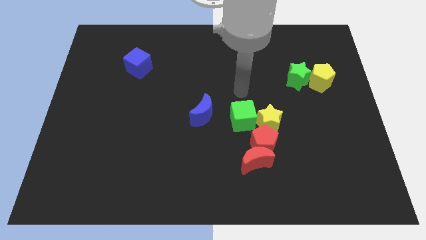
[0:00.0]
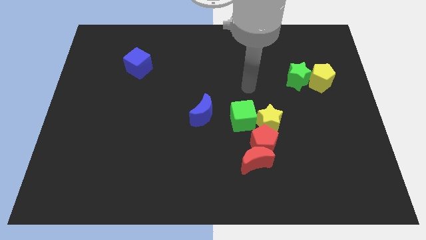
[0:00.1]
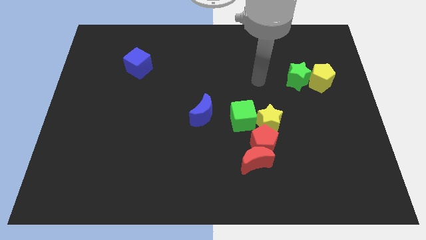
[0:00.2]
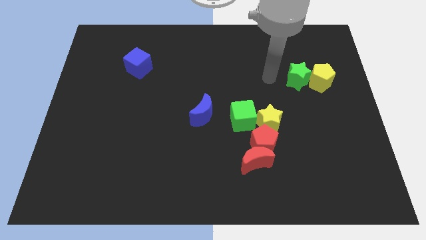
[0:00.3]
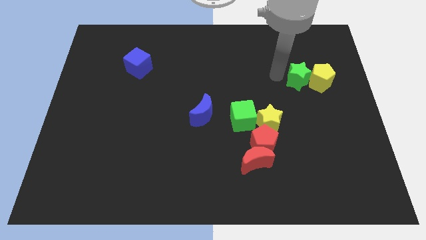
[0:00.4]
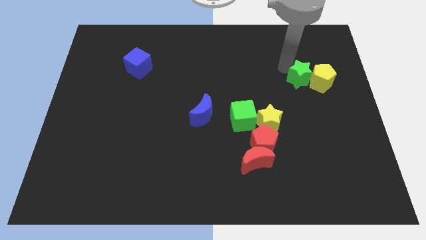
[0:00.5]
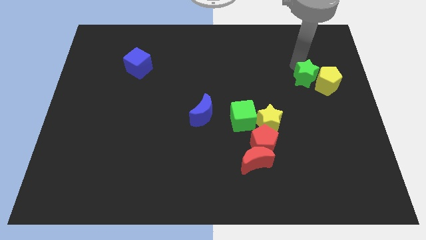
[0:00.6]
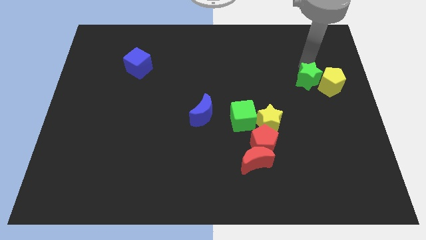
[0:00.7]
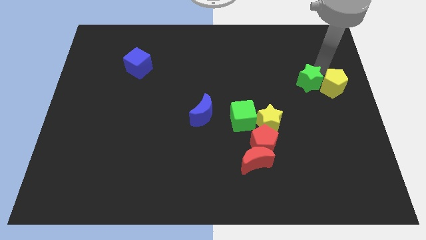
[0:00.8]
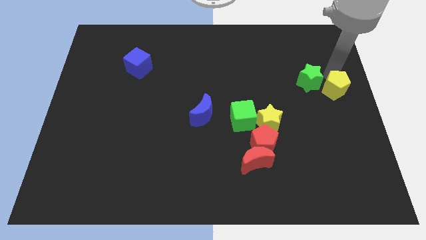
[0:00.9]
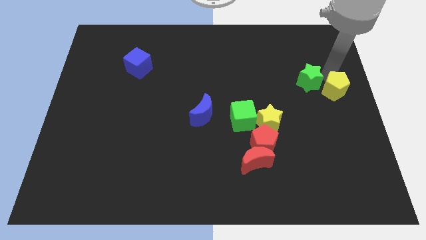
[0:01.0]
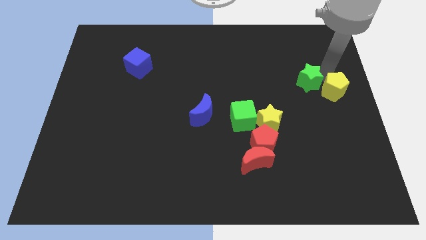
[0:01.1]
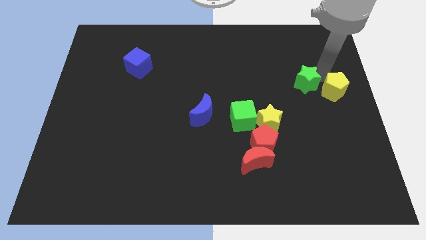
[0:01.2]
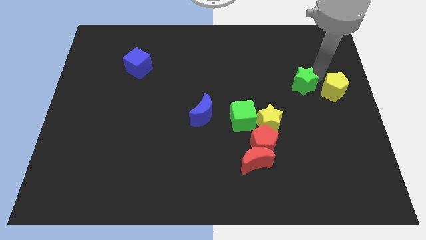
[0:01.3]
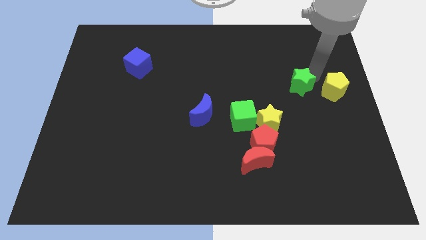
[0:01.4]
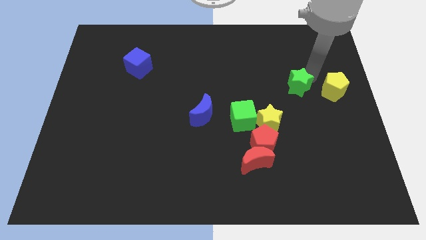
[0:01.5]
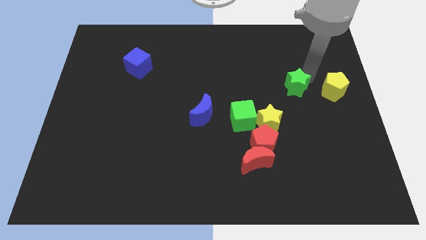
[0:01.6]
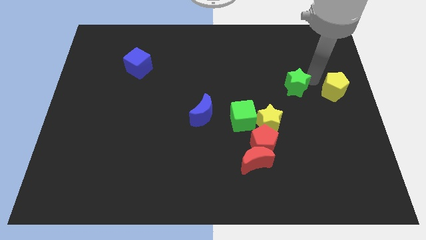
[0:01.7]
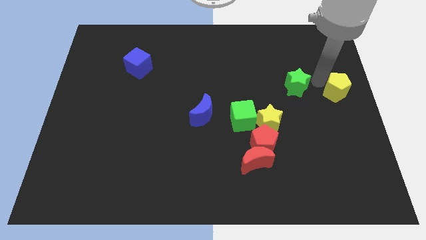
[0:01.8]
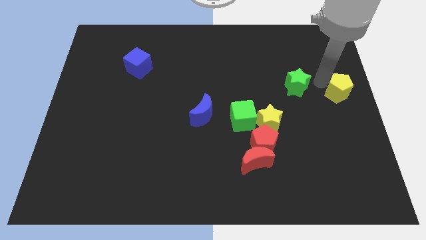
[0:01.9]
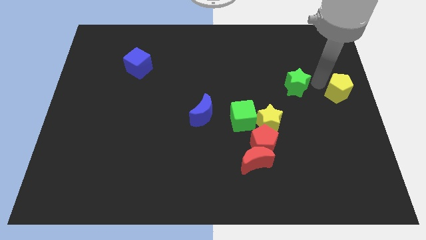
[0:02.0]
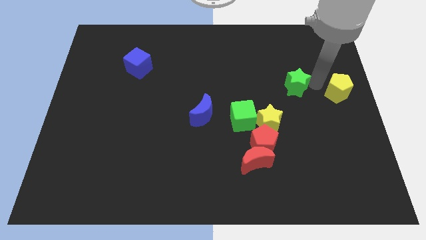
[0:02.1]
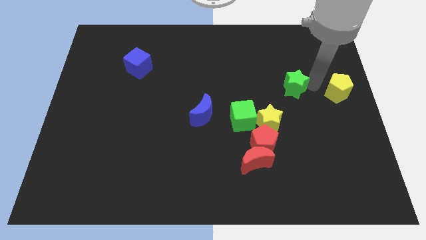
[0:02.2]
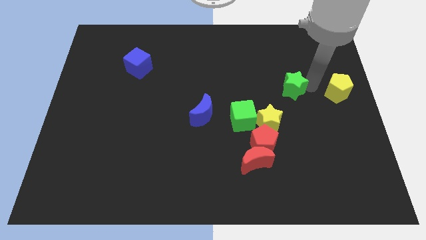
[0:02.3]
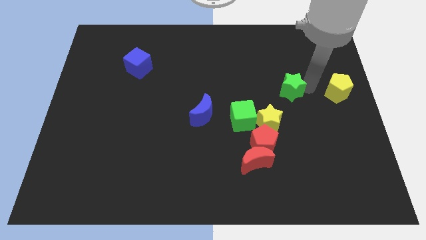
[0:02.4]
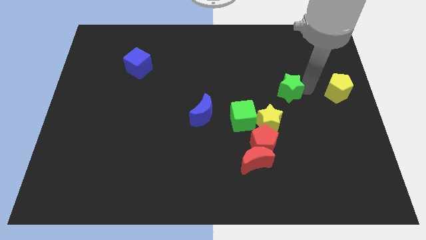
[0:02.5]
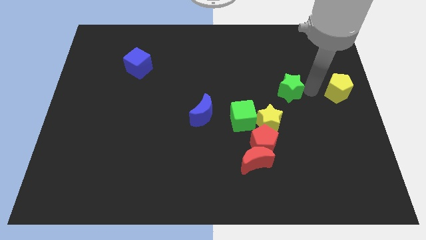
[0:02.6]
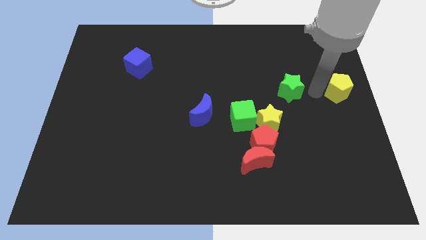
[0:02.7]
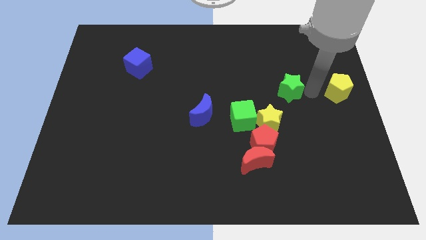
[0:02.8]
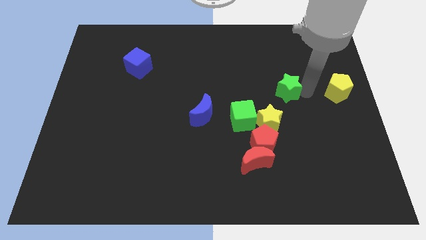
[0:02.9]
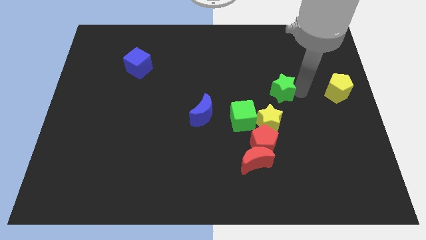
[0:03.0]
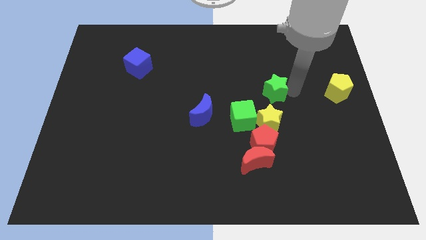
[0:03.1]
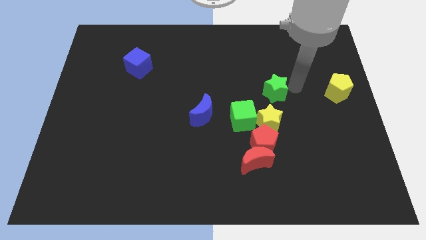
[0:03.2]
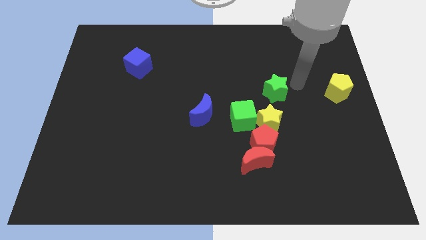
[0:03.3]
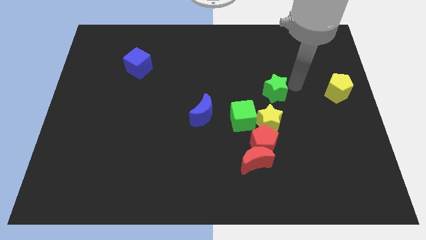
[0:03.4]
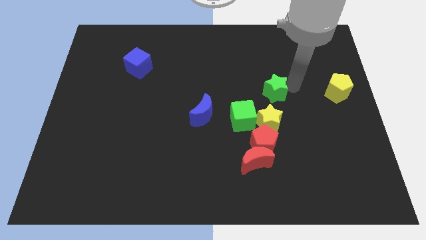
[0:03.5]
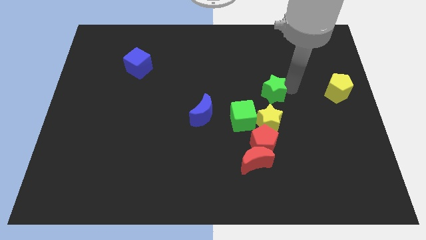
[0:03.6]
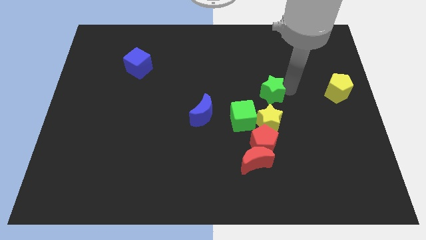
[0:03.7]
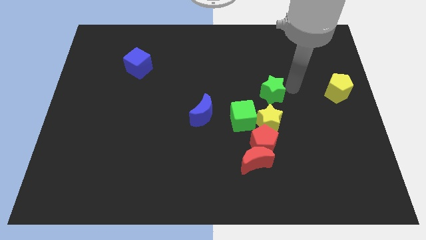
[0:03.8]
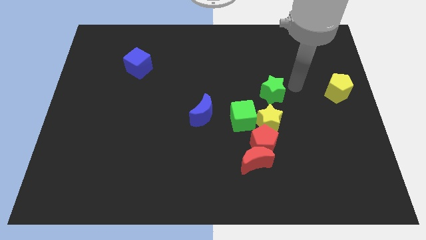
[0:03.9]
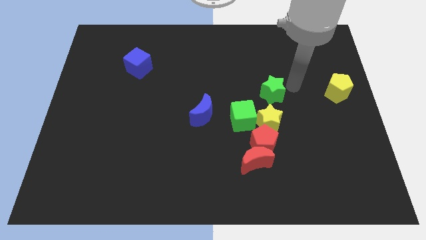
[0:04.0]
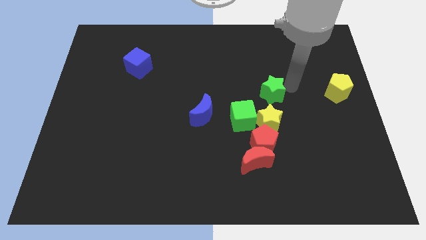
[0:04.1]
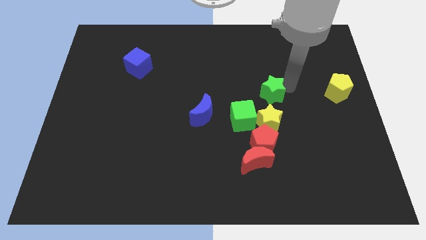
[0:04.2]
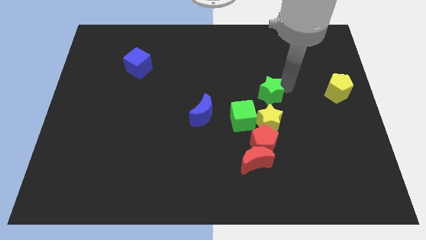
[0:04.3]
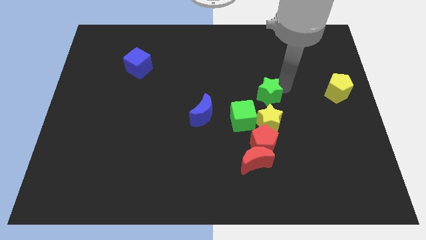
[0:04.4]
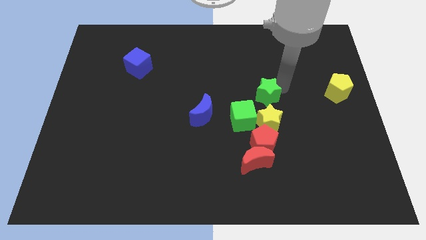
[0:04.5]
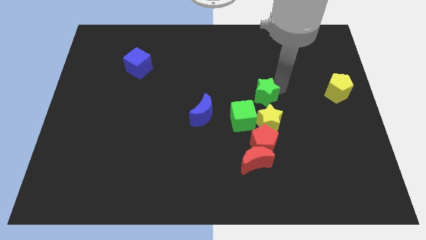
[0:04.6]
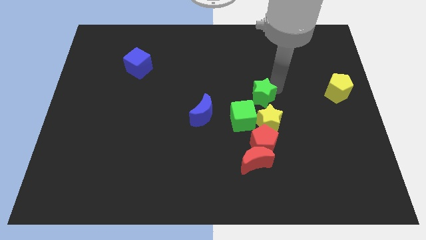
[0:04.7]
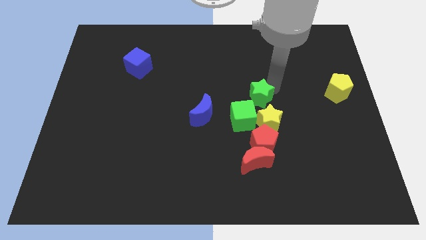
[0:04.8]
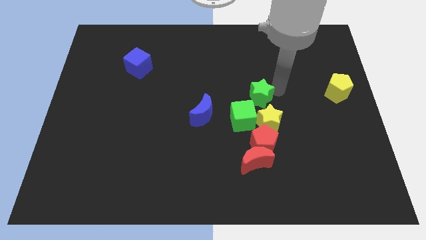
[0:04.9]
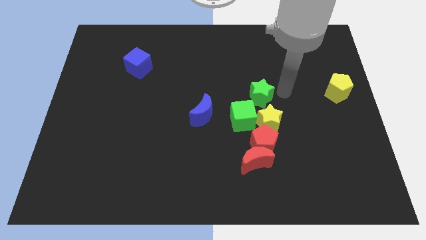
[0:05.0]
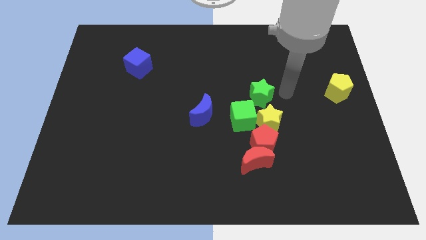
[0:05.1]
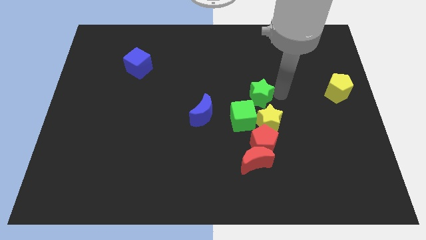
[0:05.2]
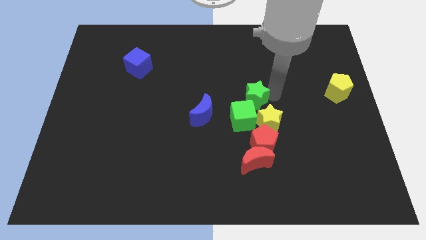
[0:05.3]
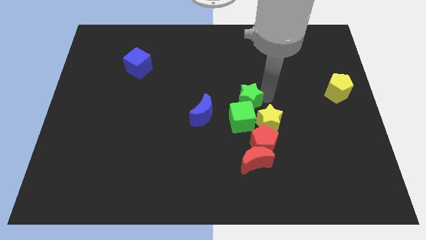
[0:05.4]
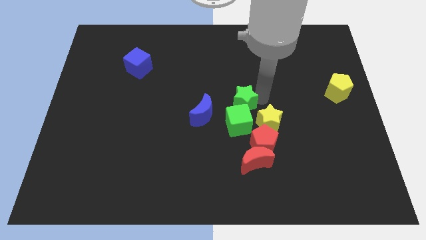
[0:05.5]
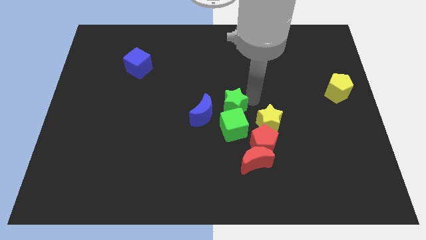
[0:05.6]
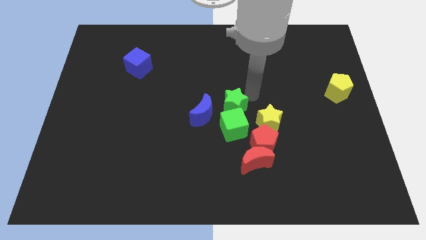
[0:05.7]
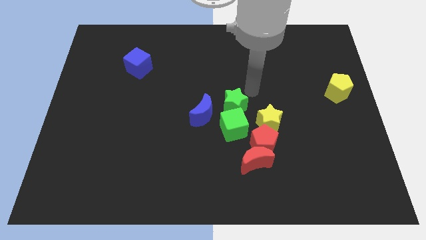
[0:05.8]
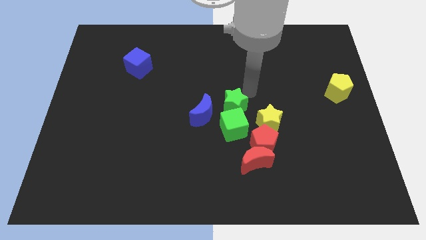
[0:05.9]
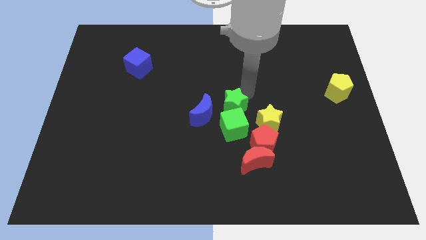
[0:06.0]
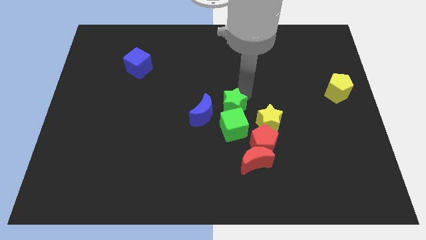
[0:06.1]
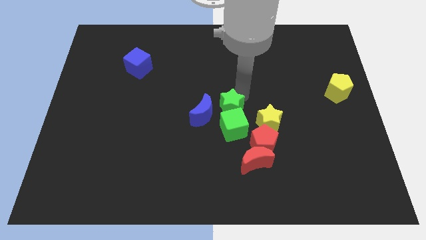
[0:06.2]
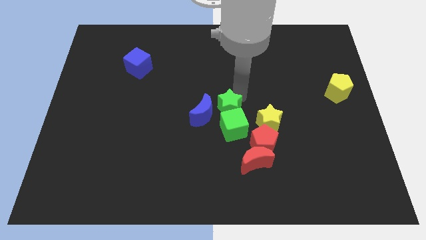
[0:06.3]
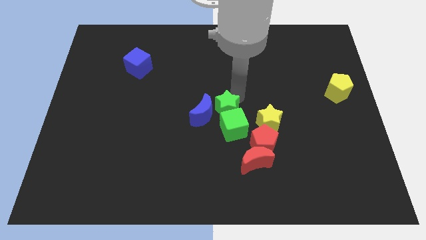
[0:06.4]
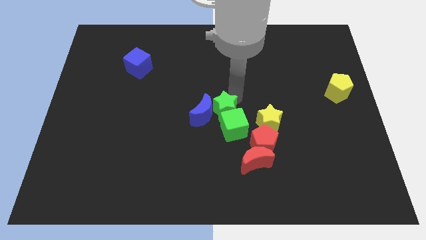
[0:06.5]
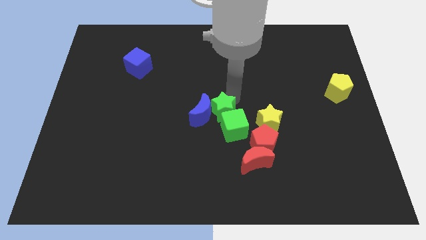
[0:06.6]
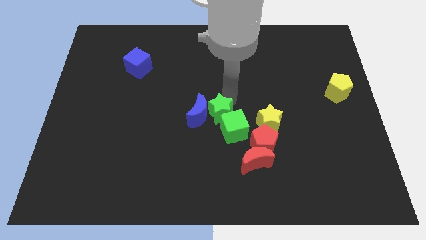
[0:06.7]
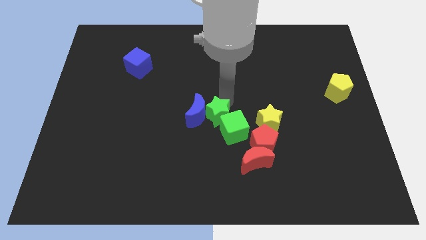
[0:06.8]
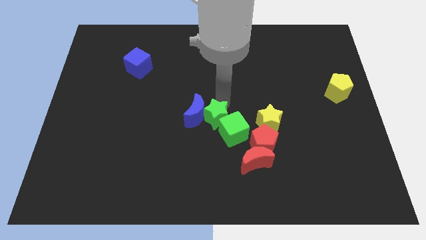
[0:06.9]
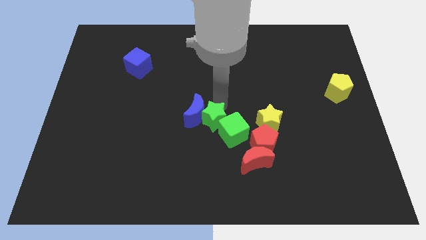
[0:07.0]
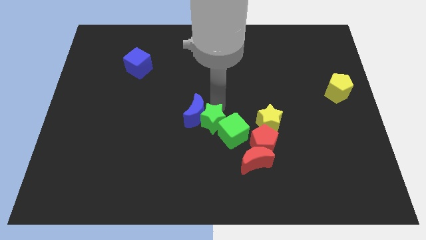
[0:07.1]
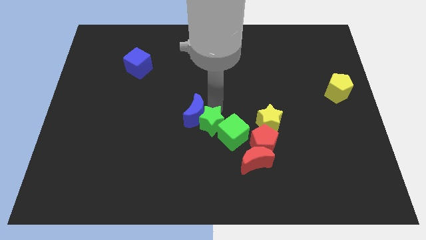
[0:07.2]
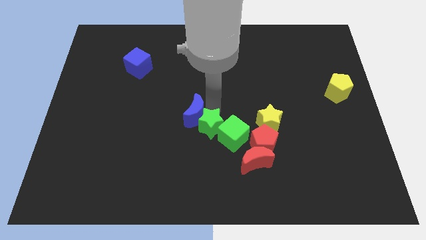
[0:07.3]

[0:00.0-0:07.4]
slide the green star left of the red pentagon
